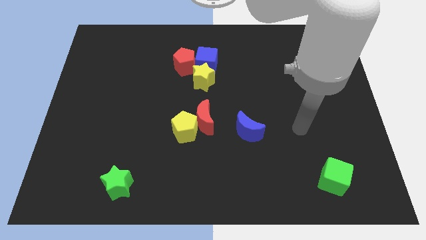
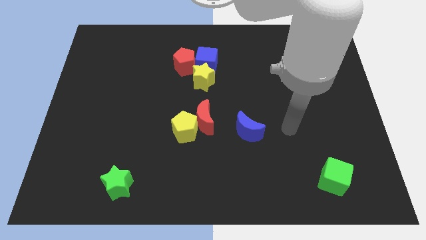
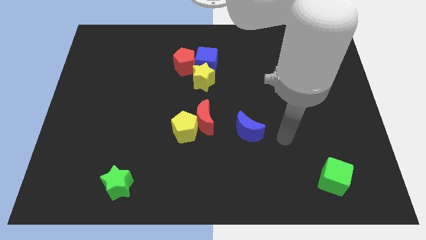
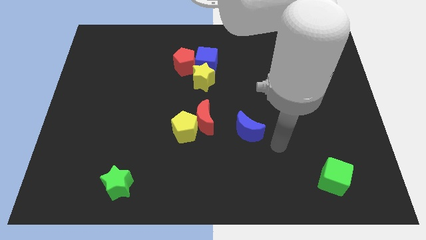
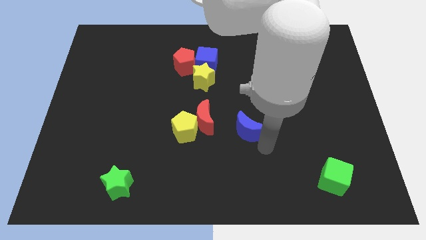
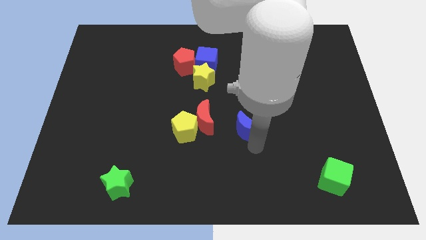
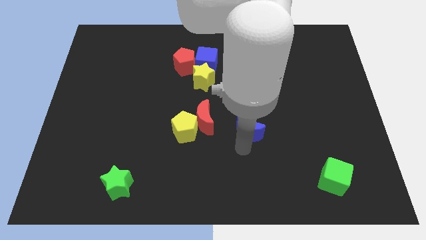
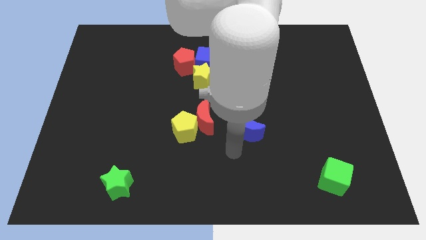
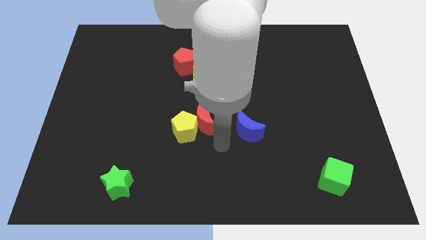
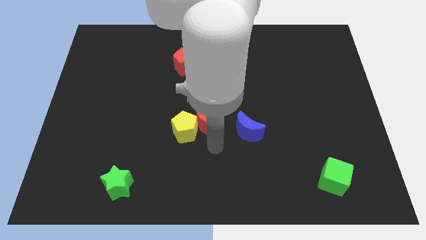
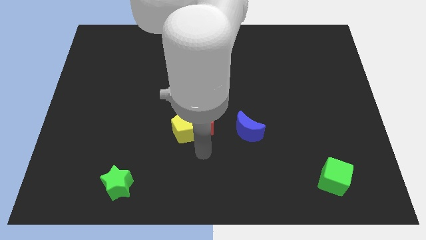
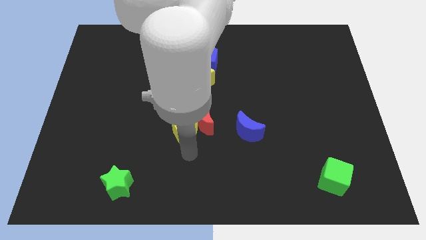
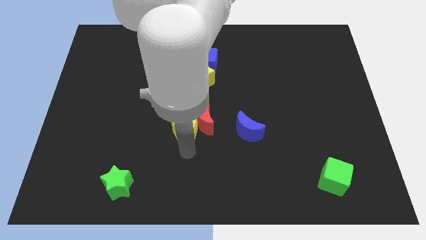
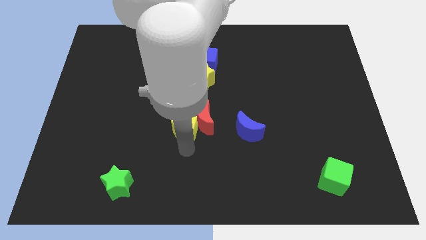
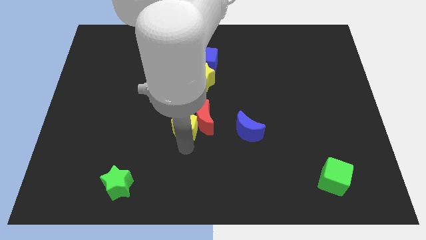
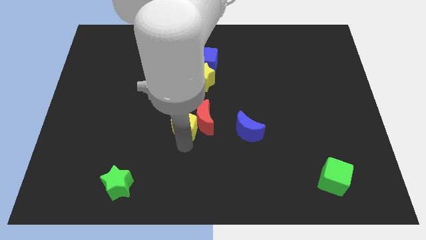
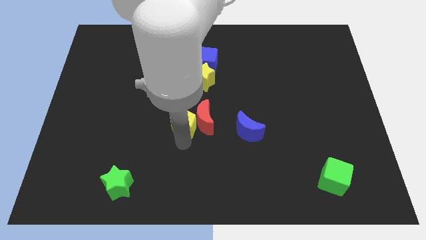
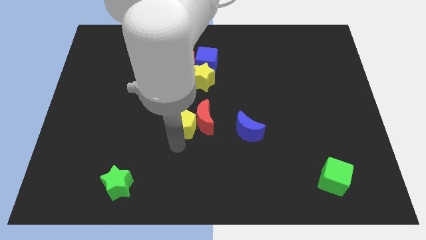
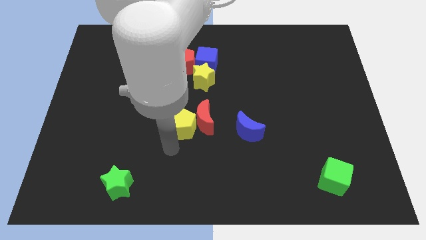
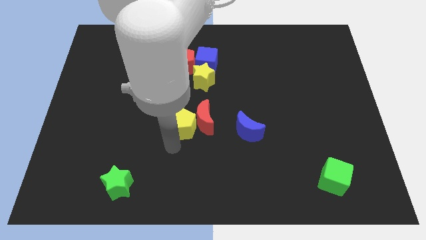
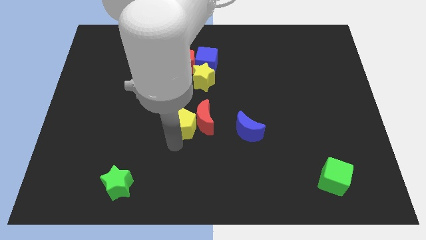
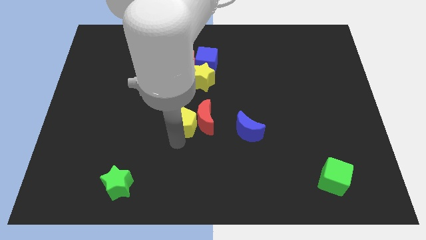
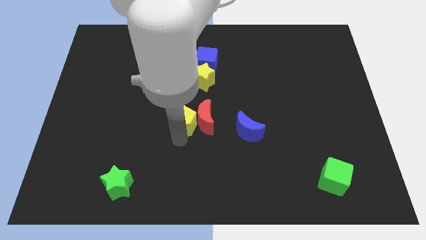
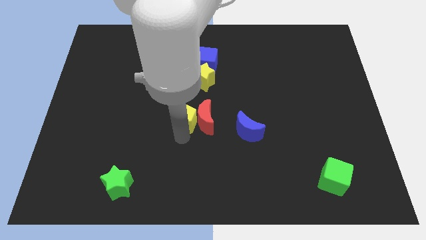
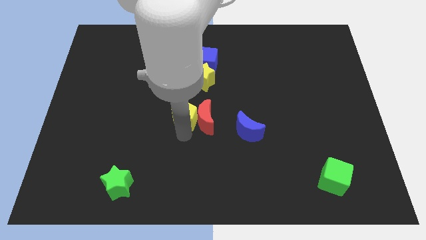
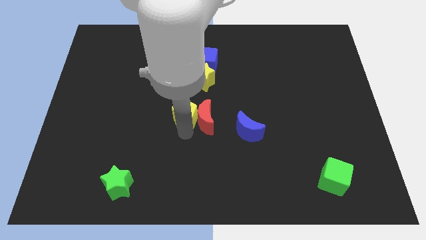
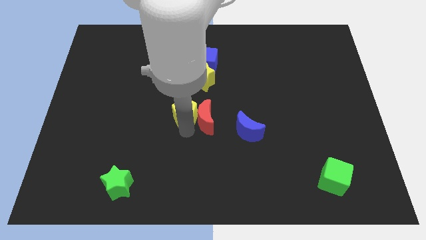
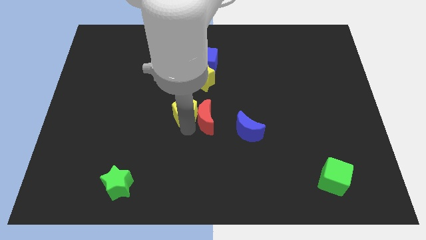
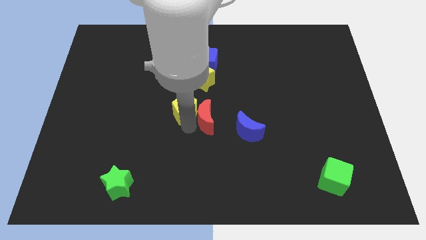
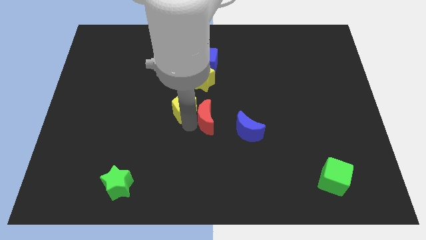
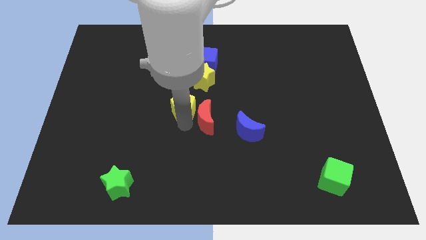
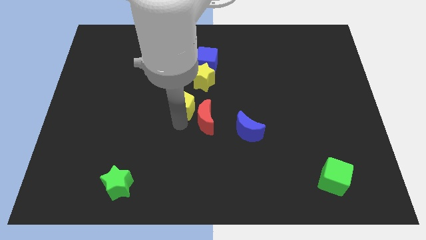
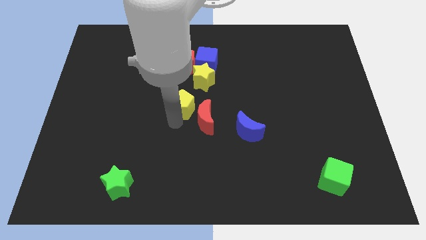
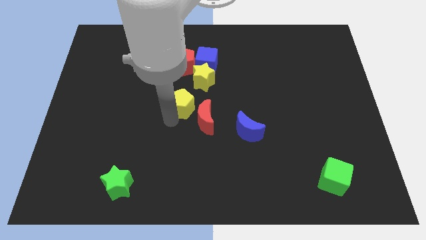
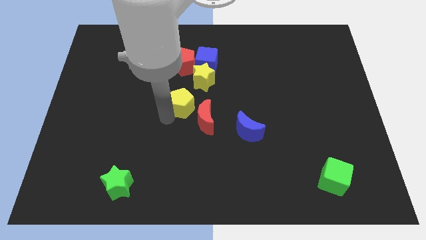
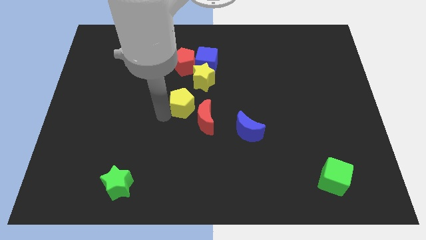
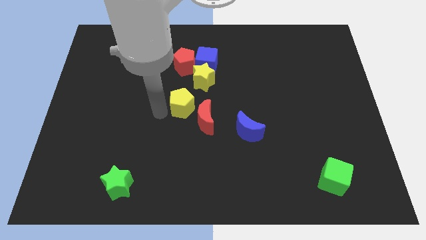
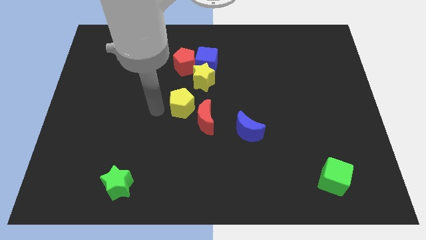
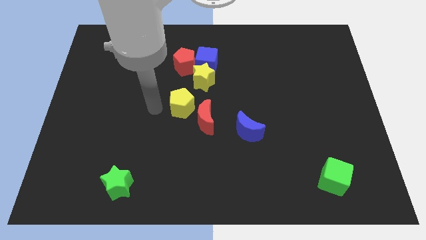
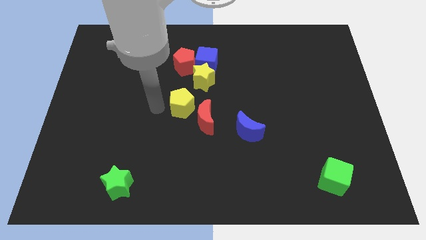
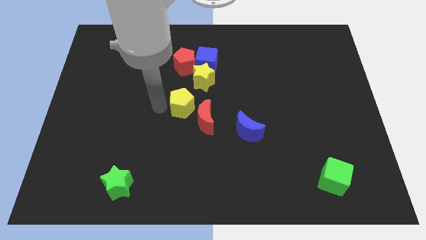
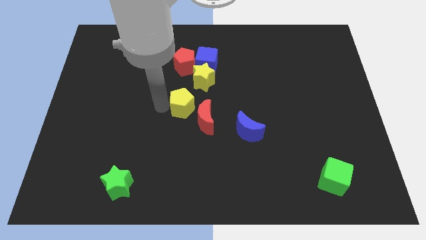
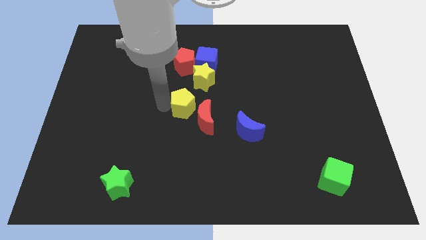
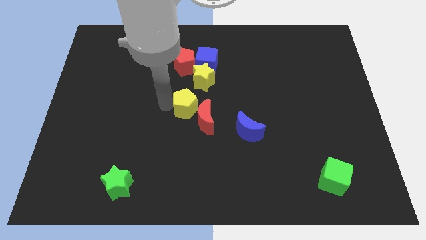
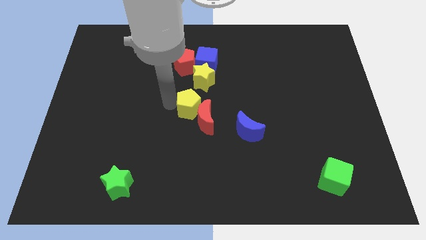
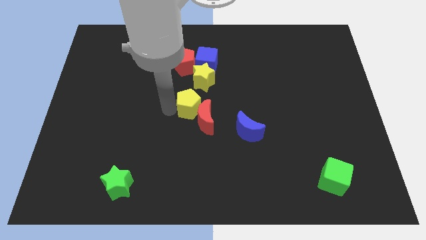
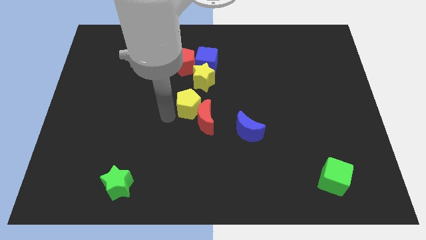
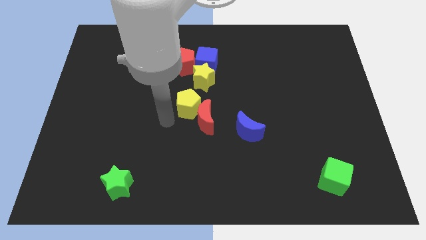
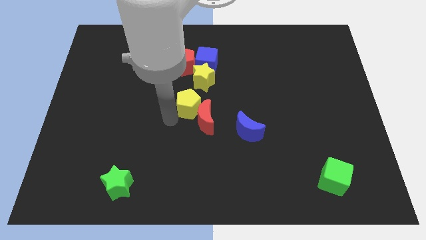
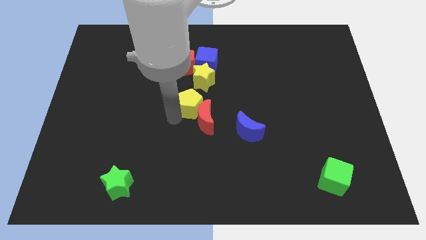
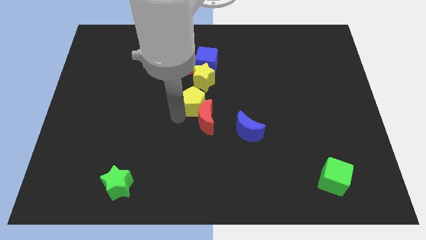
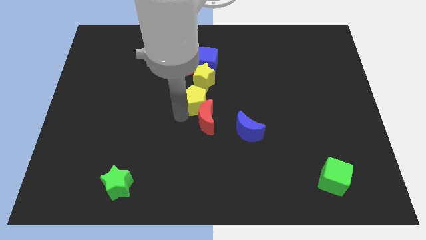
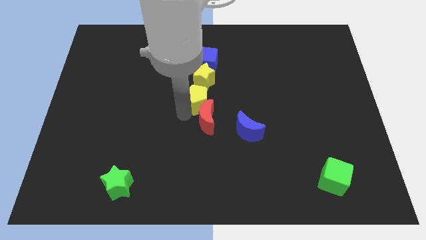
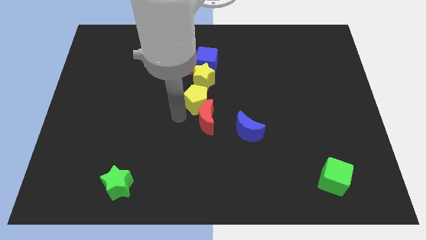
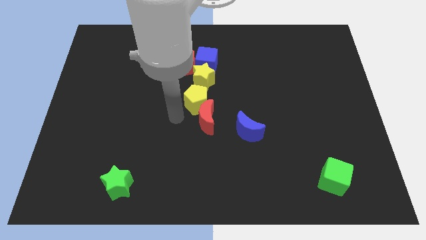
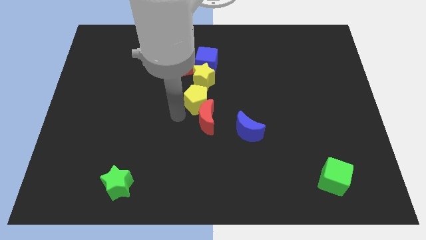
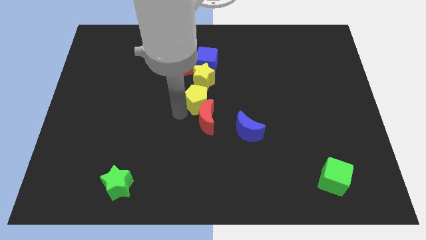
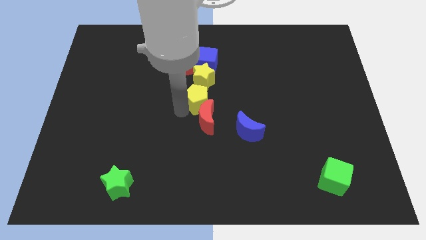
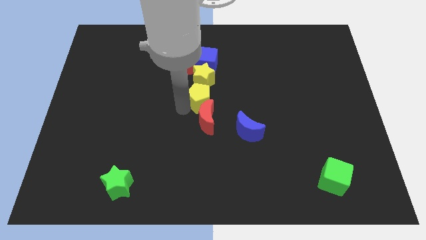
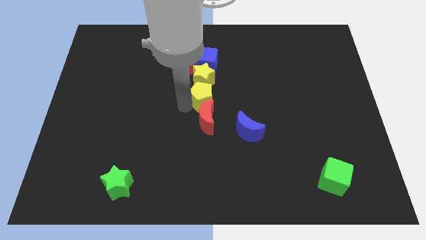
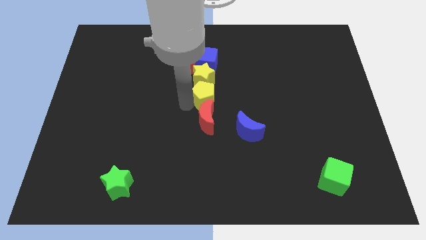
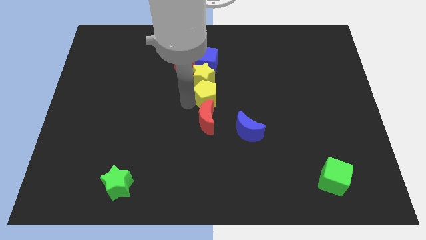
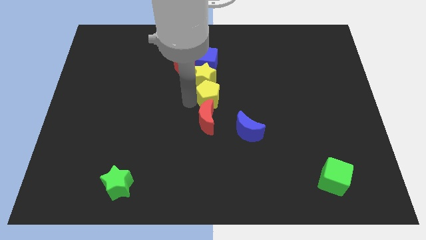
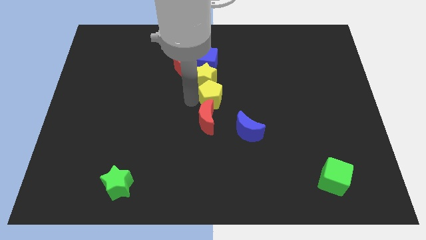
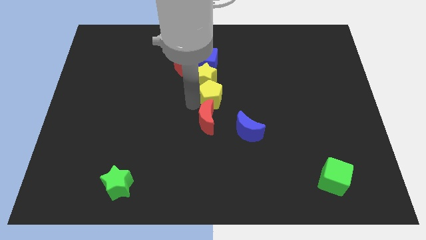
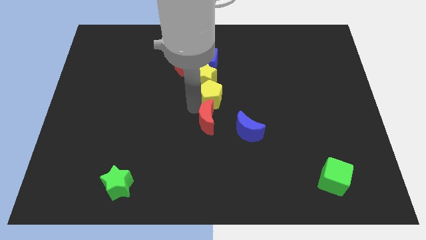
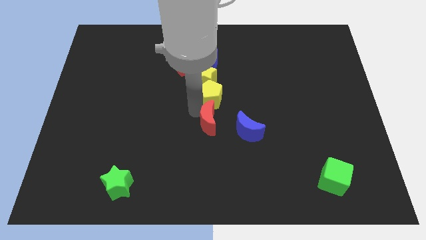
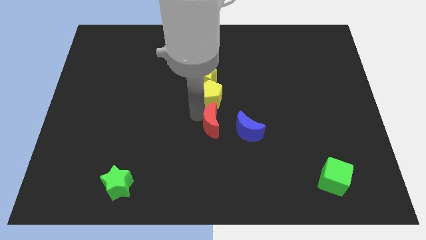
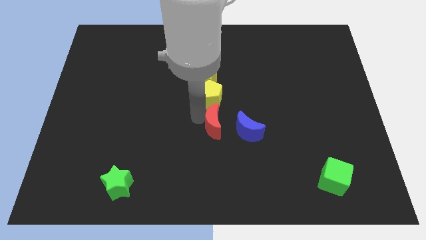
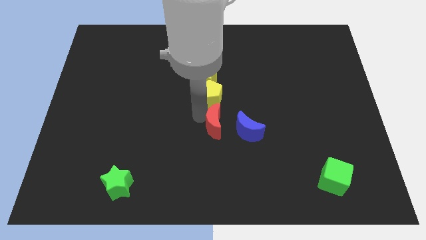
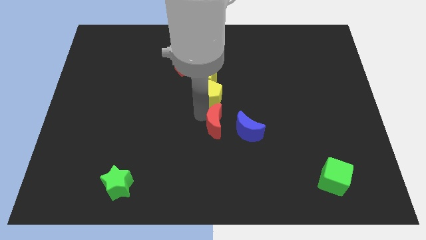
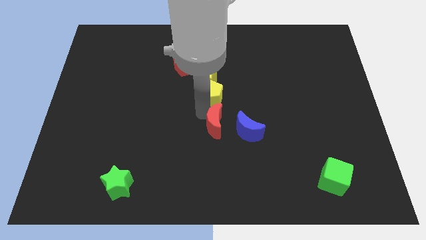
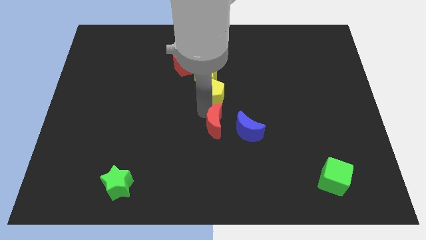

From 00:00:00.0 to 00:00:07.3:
slide the yellow pentagon to the bottom right side of the red pentagon

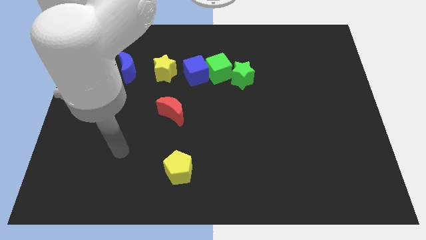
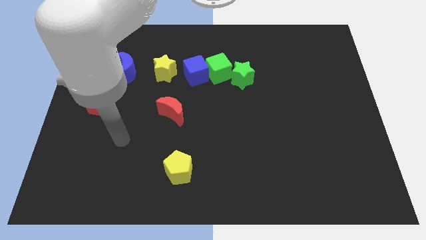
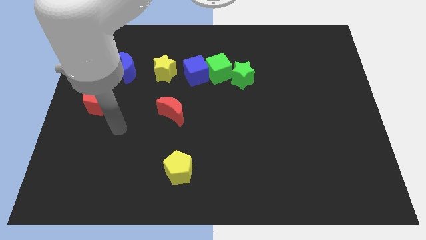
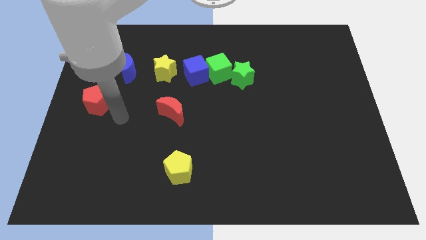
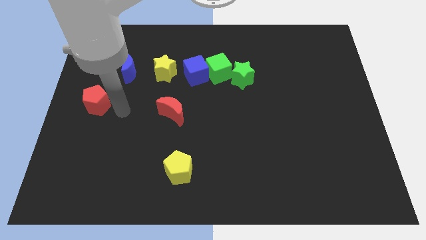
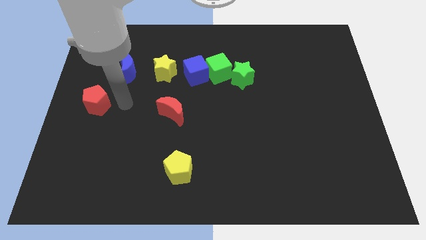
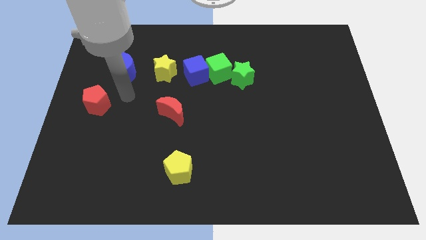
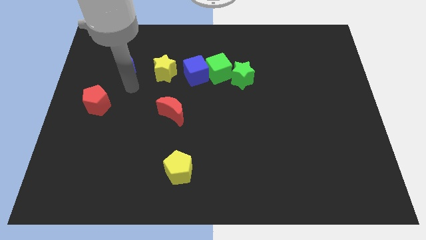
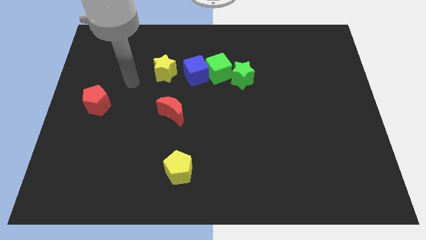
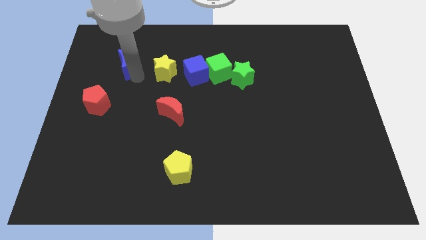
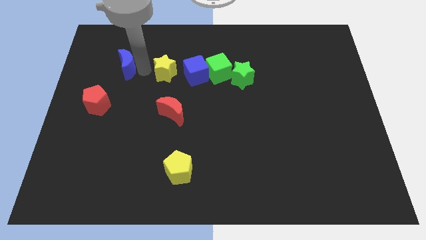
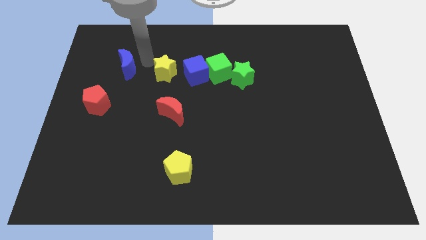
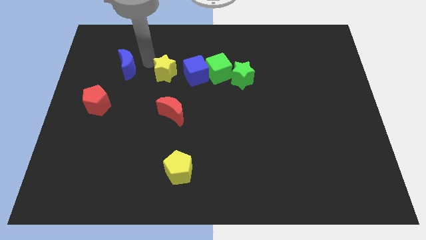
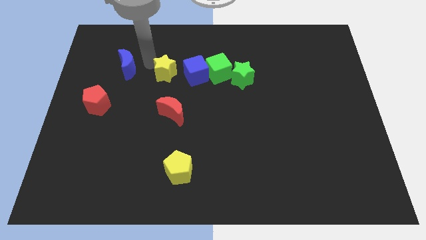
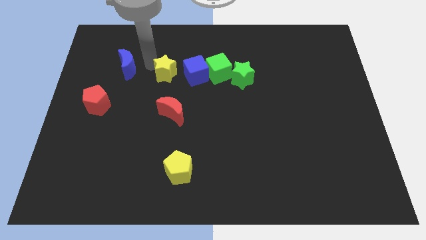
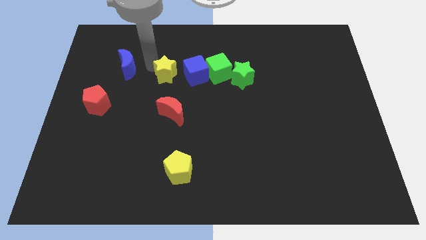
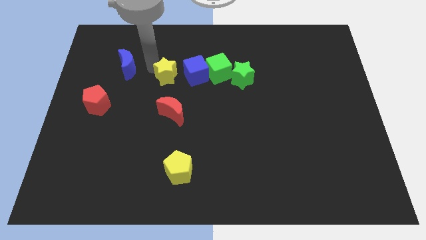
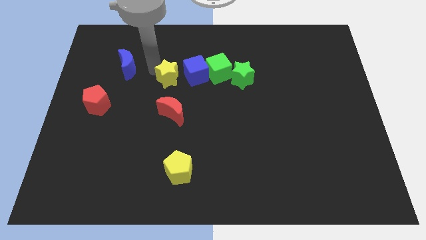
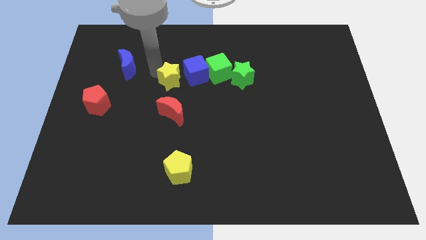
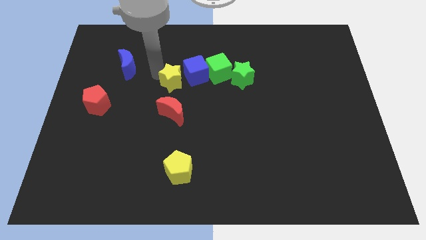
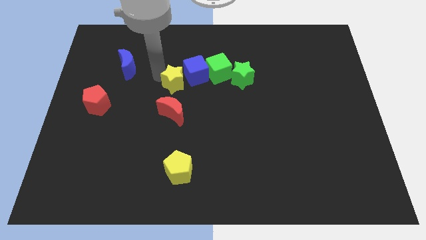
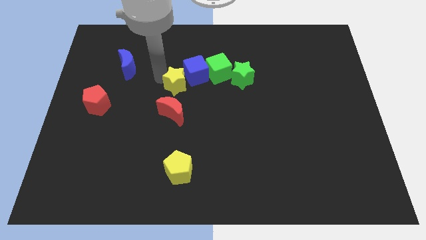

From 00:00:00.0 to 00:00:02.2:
push the yellow star diagonally down and to the left of the green cube
